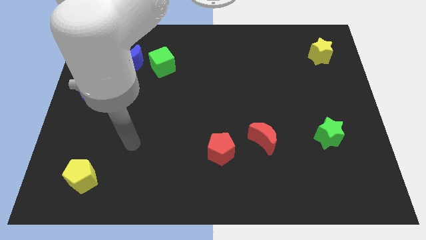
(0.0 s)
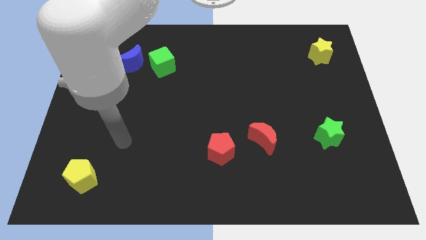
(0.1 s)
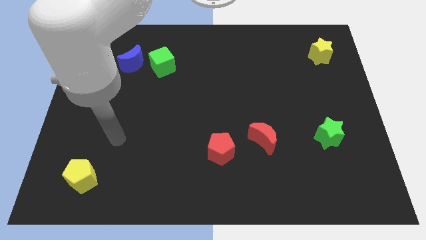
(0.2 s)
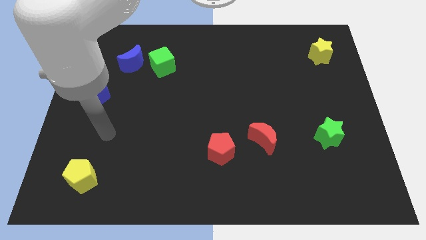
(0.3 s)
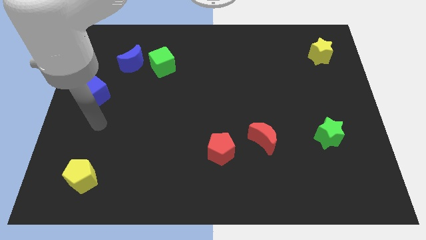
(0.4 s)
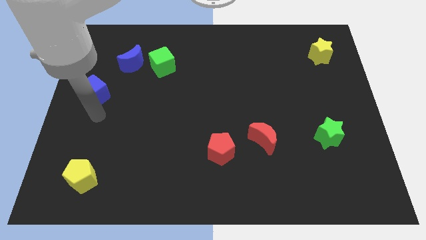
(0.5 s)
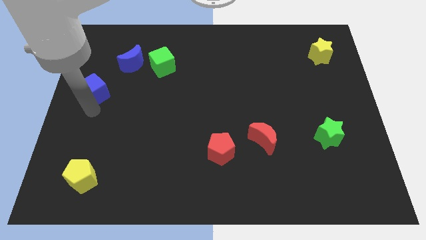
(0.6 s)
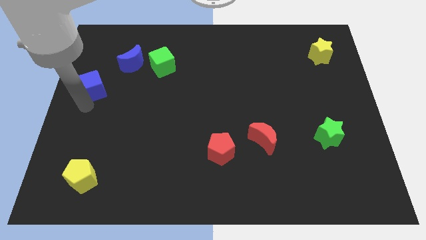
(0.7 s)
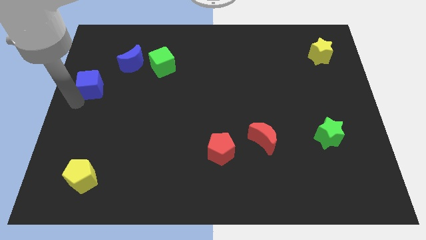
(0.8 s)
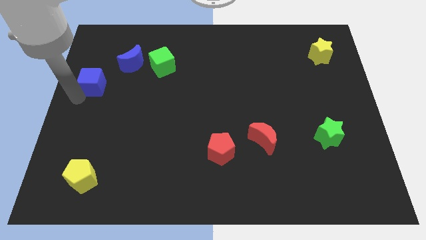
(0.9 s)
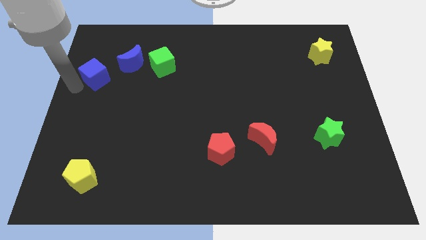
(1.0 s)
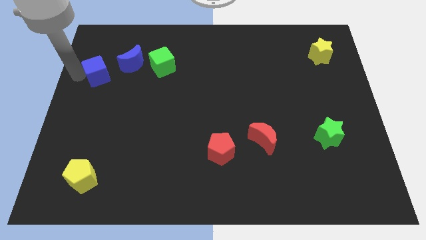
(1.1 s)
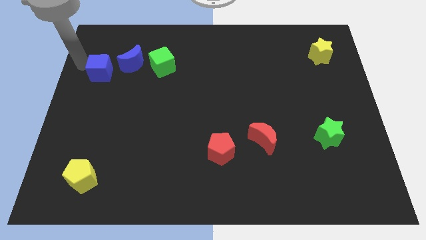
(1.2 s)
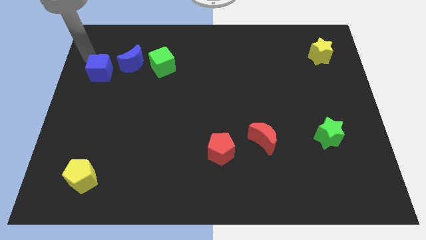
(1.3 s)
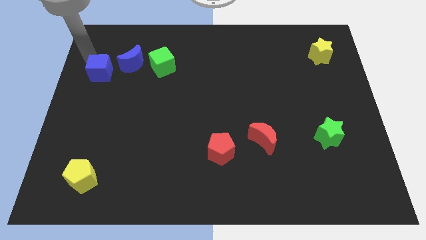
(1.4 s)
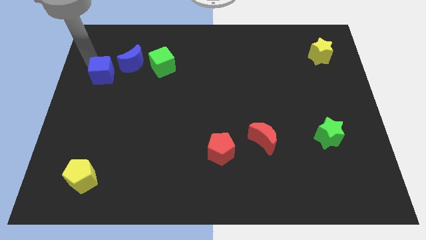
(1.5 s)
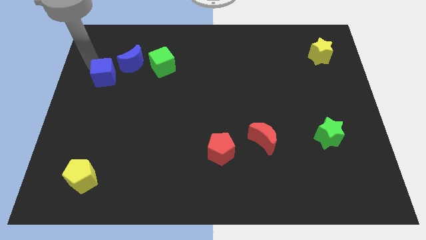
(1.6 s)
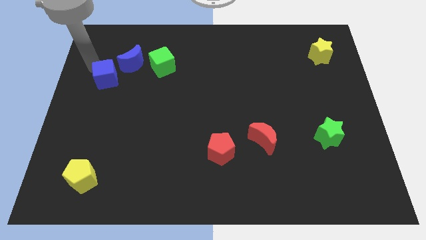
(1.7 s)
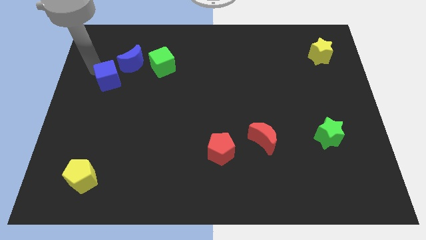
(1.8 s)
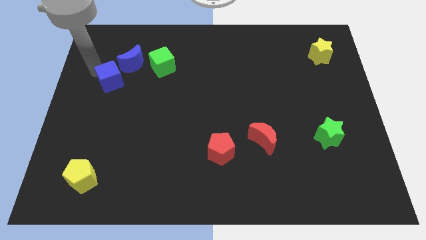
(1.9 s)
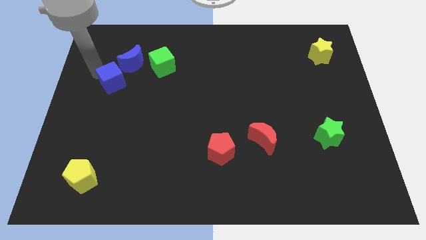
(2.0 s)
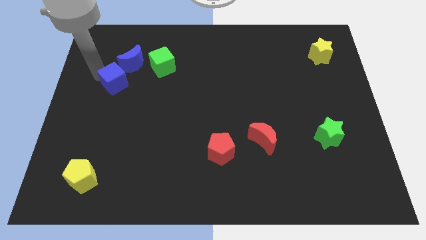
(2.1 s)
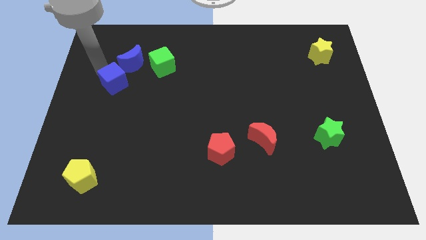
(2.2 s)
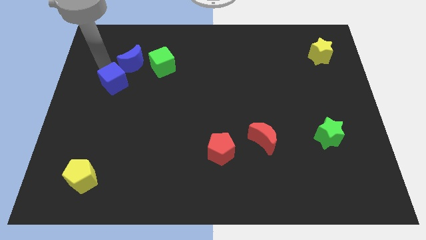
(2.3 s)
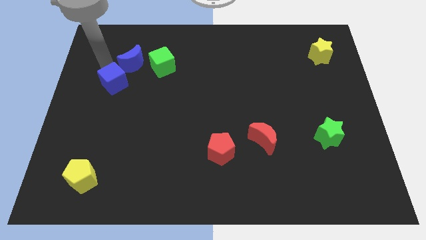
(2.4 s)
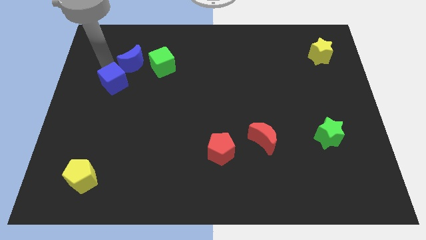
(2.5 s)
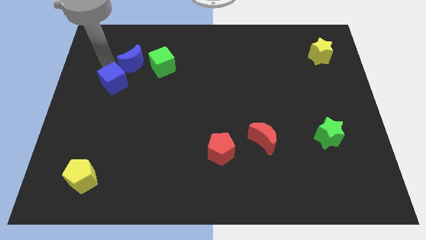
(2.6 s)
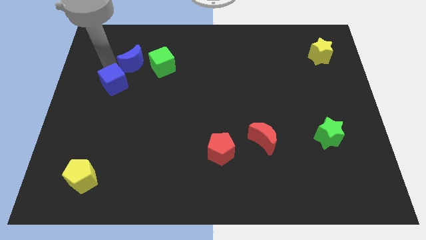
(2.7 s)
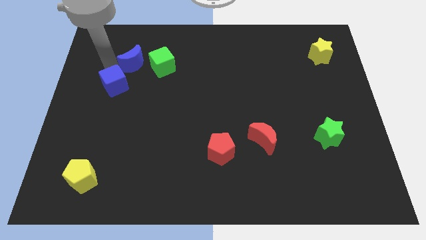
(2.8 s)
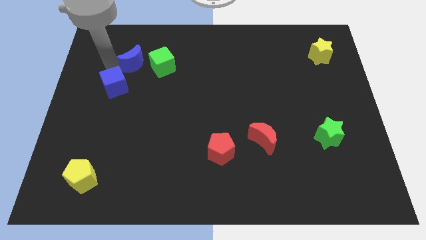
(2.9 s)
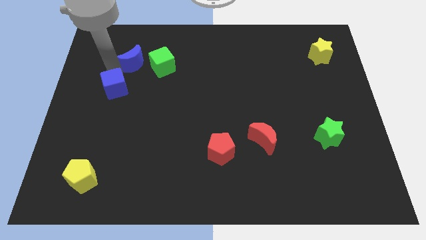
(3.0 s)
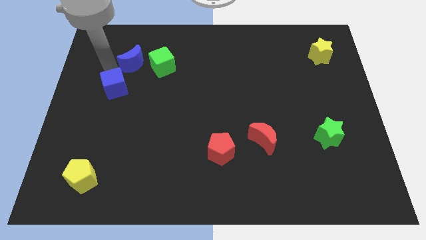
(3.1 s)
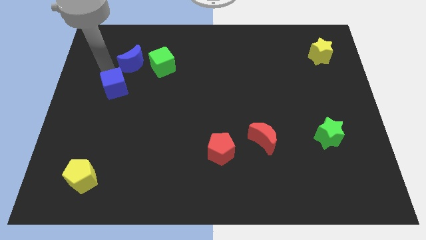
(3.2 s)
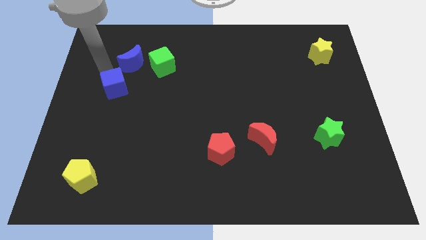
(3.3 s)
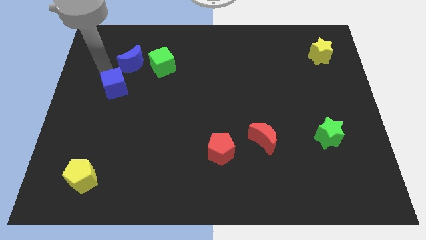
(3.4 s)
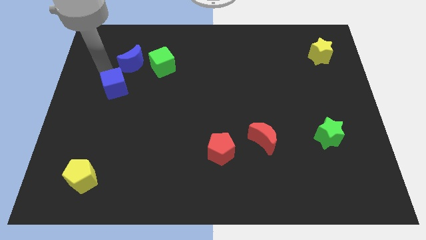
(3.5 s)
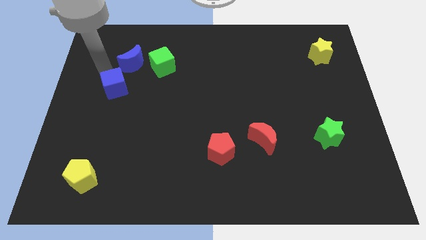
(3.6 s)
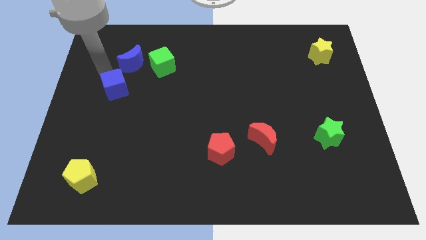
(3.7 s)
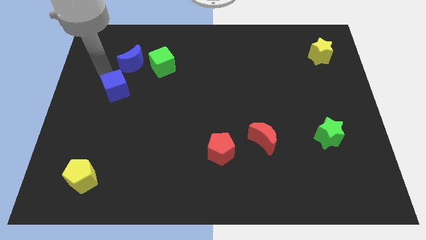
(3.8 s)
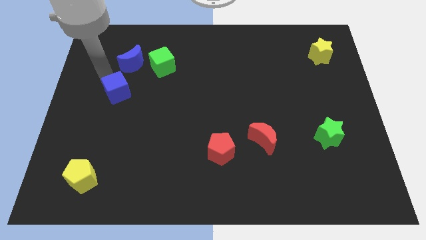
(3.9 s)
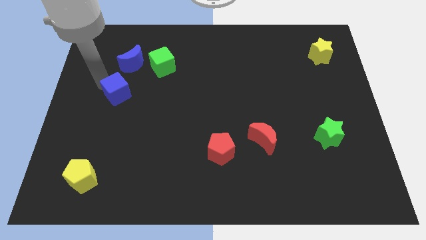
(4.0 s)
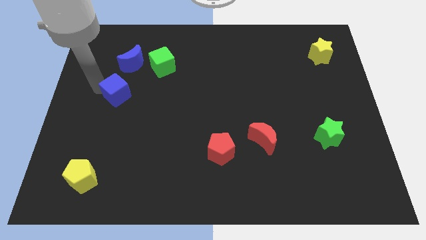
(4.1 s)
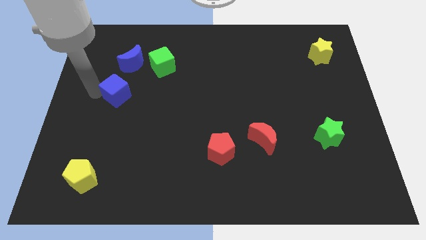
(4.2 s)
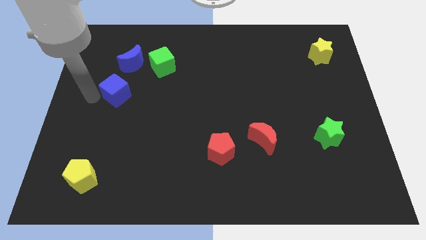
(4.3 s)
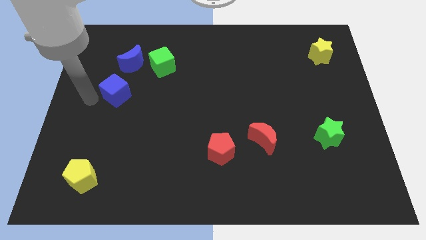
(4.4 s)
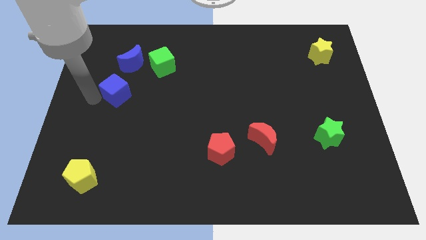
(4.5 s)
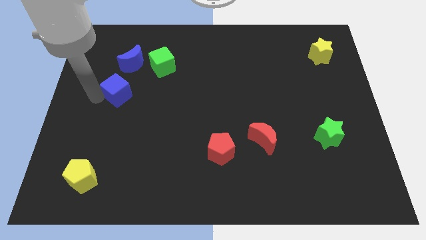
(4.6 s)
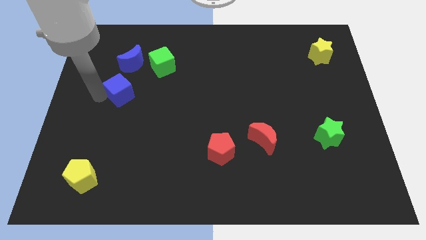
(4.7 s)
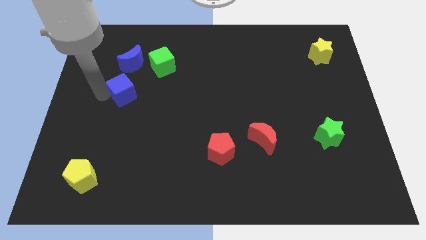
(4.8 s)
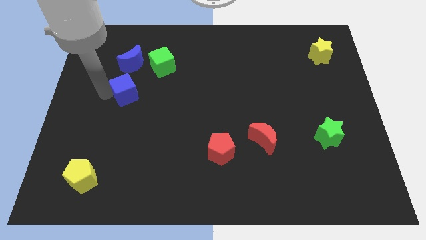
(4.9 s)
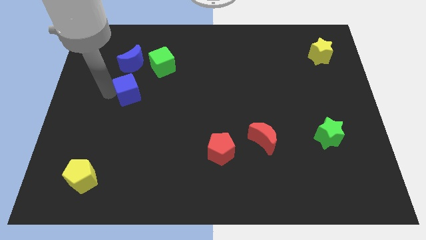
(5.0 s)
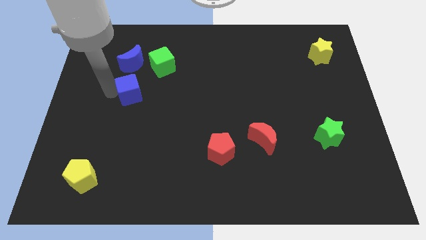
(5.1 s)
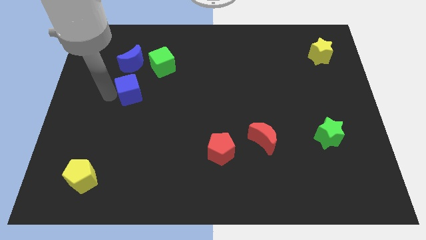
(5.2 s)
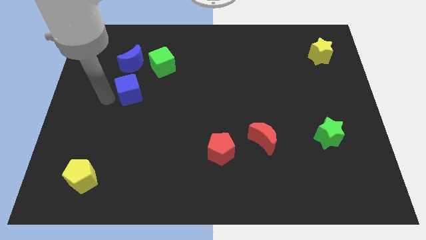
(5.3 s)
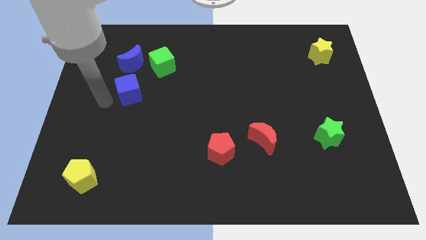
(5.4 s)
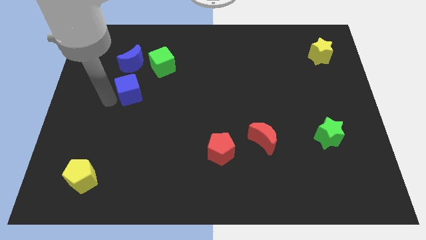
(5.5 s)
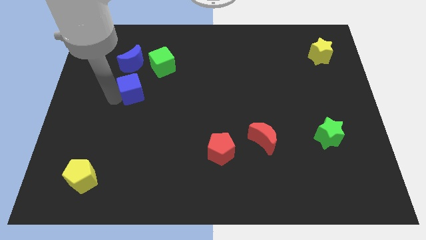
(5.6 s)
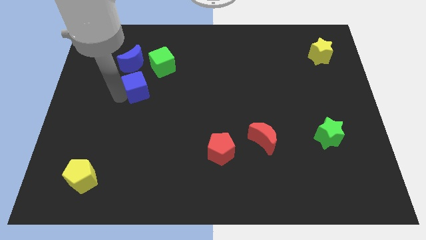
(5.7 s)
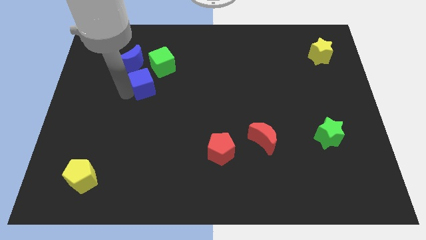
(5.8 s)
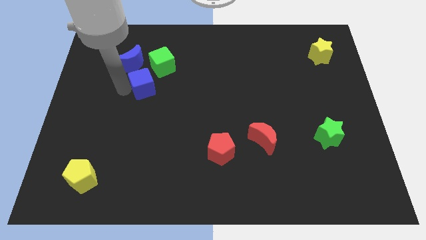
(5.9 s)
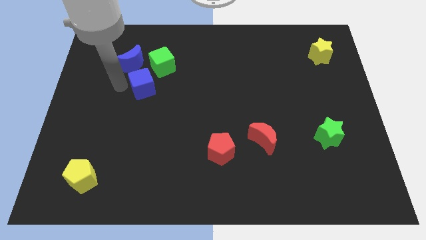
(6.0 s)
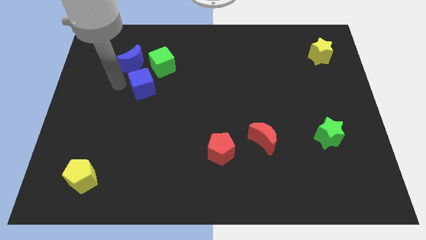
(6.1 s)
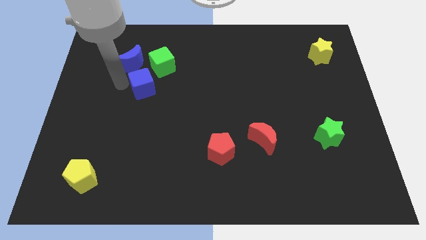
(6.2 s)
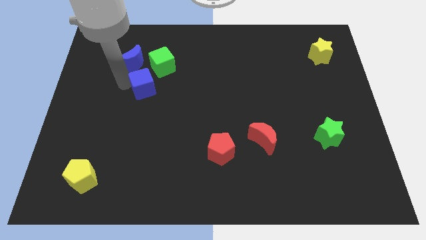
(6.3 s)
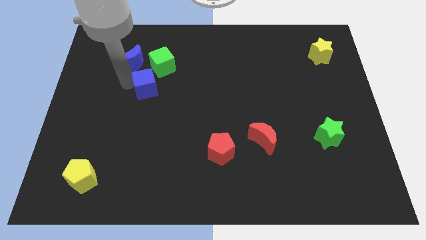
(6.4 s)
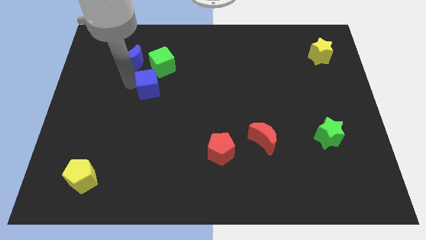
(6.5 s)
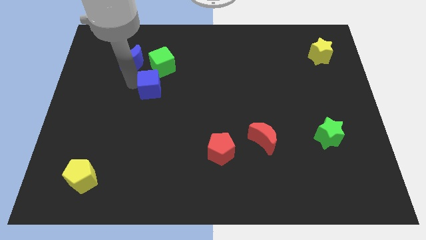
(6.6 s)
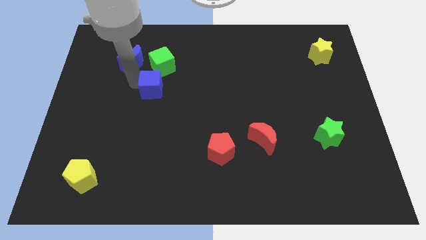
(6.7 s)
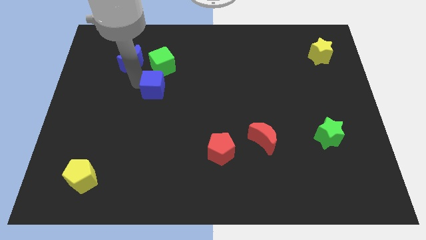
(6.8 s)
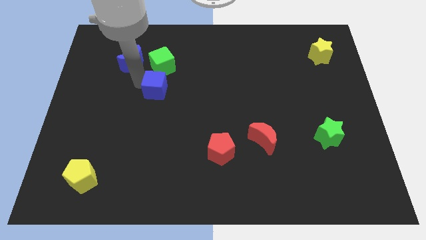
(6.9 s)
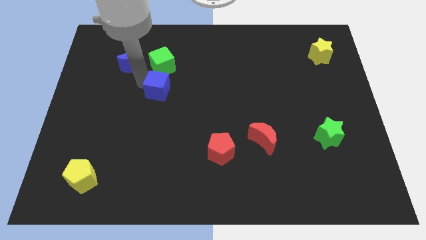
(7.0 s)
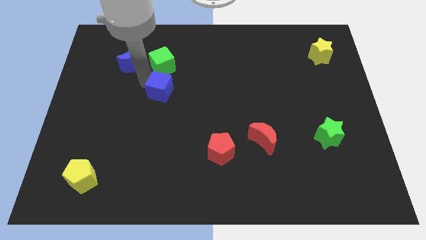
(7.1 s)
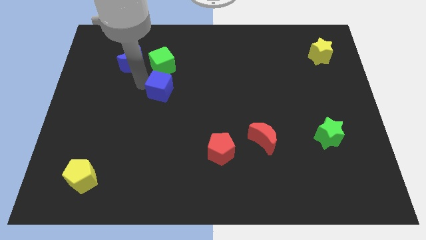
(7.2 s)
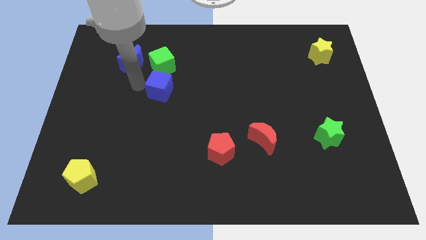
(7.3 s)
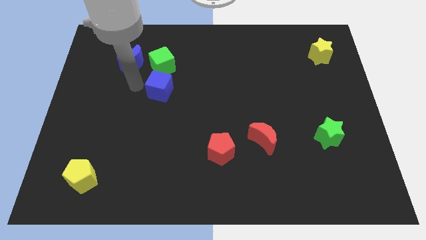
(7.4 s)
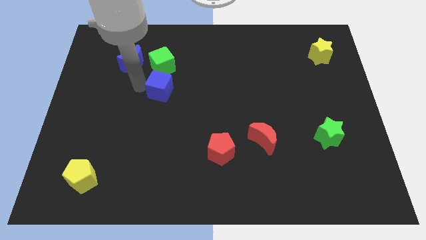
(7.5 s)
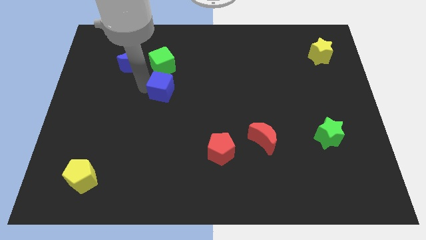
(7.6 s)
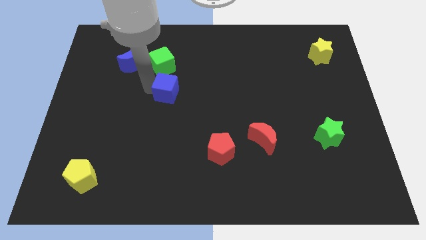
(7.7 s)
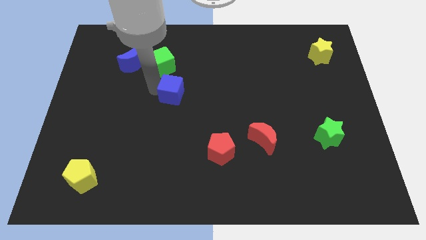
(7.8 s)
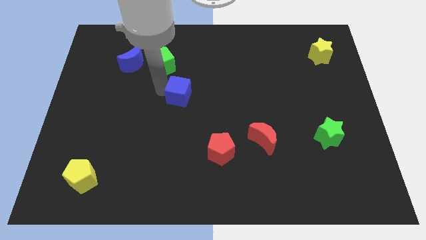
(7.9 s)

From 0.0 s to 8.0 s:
move the blue cube to the right

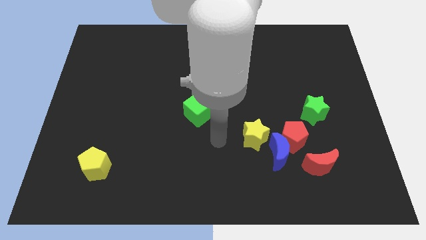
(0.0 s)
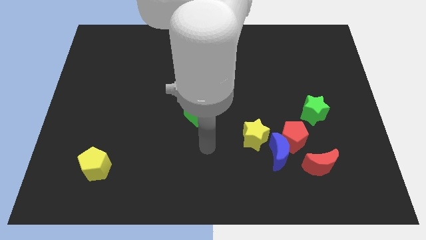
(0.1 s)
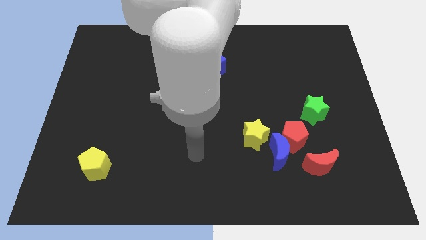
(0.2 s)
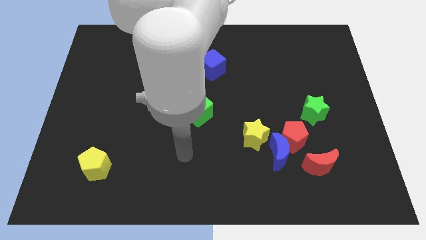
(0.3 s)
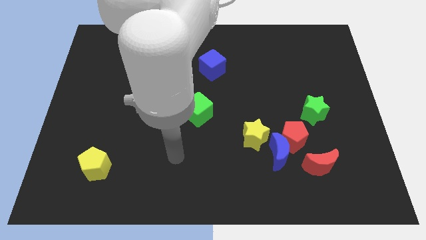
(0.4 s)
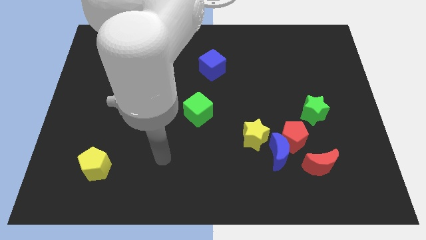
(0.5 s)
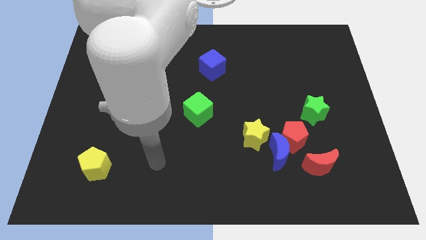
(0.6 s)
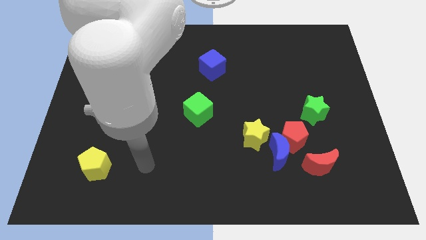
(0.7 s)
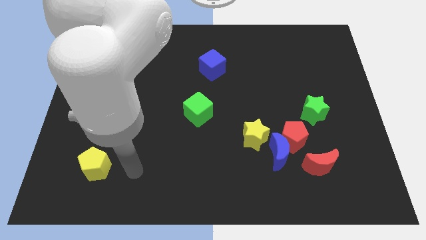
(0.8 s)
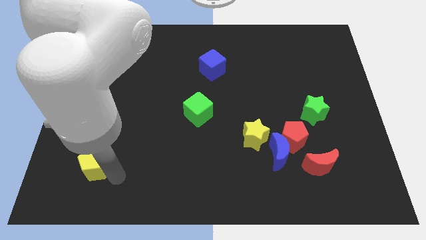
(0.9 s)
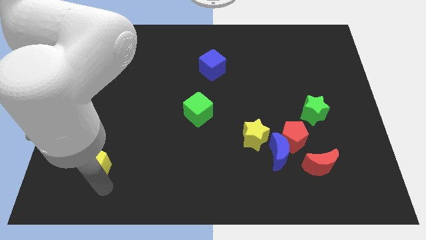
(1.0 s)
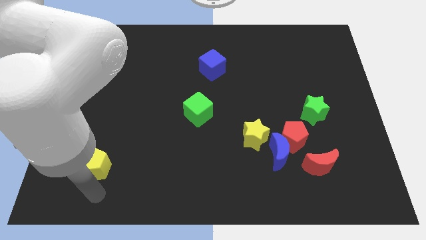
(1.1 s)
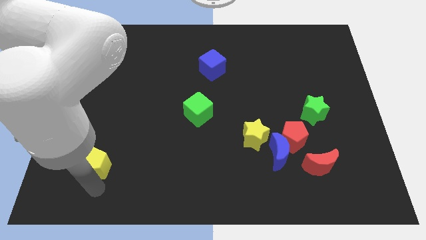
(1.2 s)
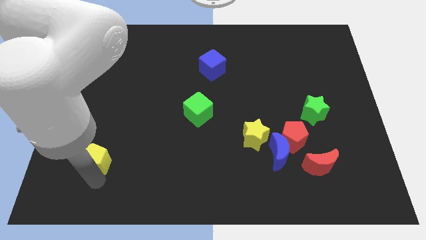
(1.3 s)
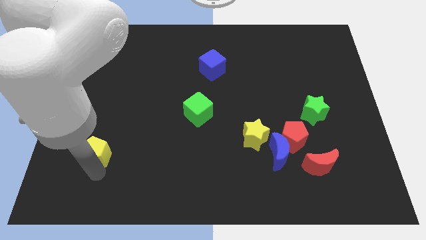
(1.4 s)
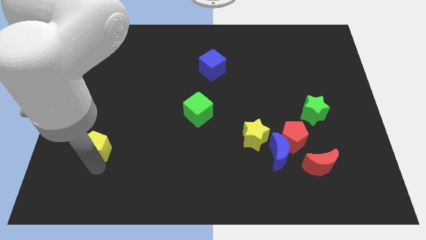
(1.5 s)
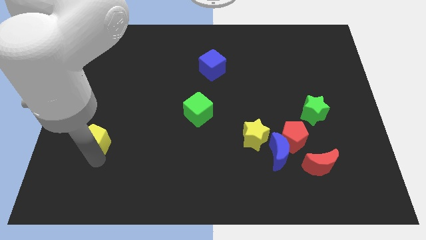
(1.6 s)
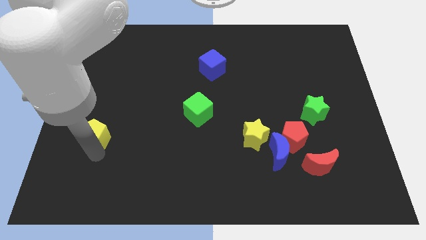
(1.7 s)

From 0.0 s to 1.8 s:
slide the yellow pentagon upwards a little
